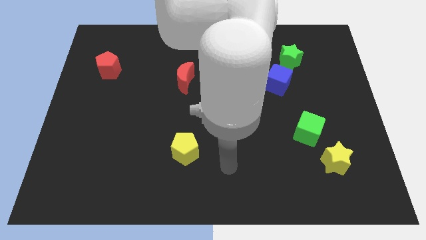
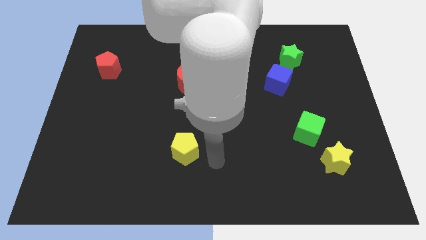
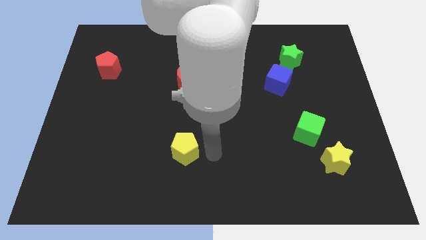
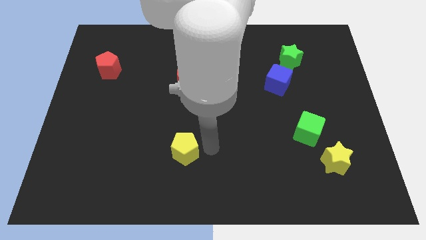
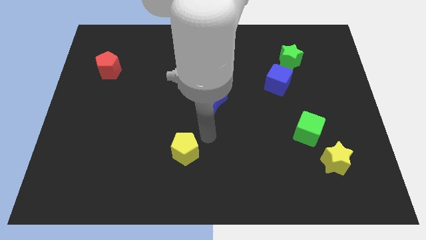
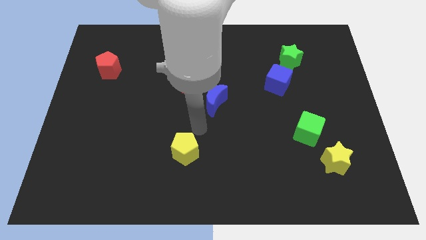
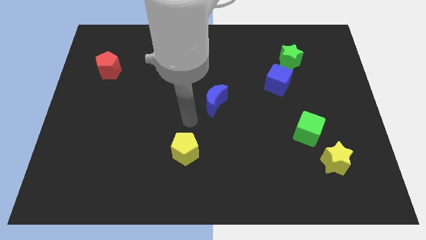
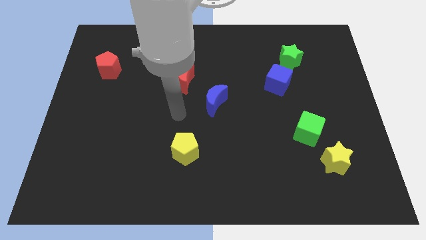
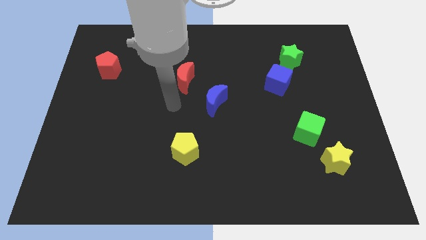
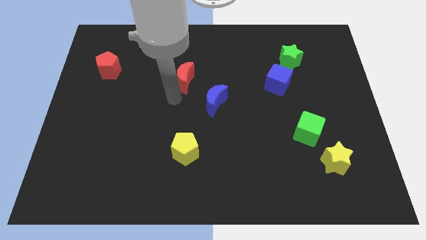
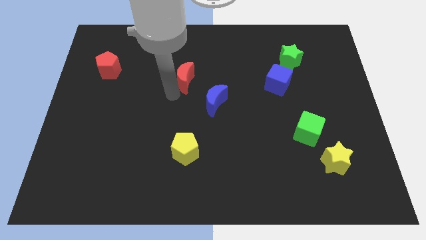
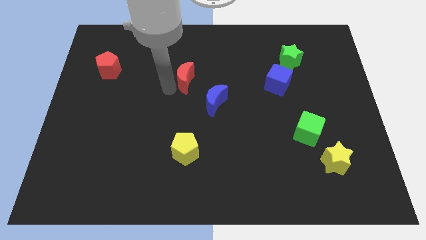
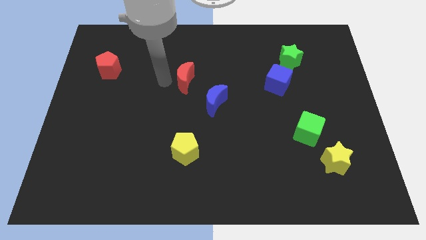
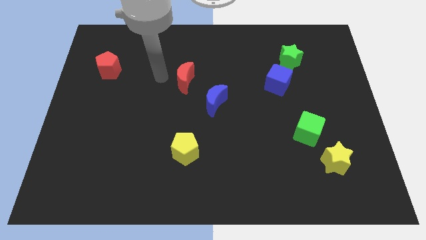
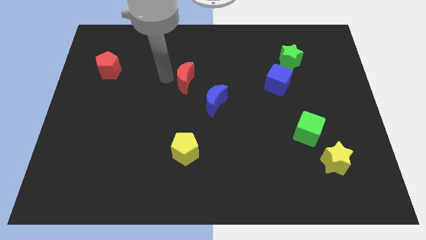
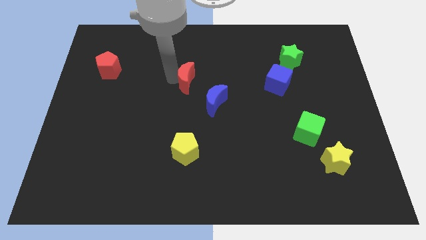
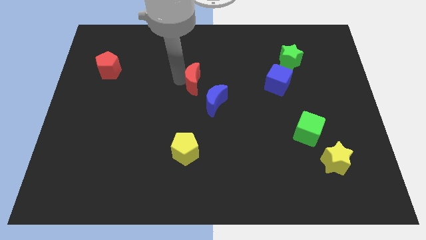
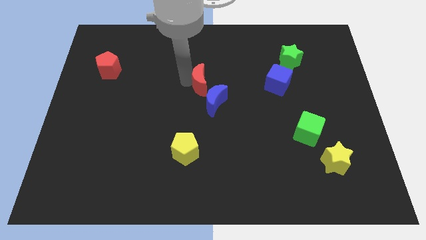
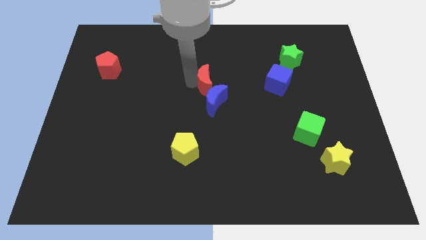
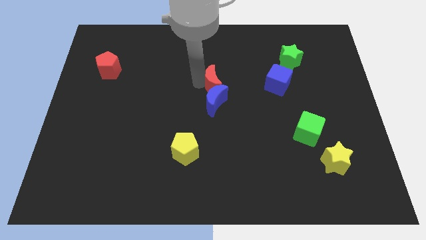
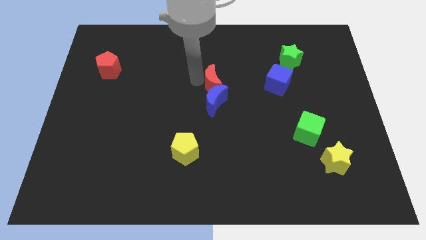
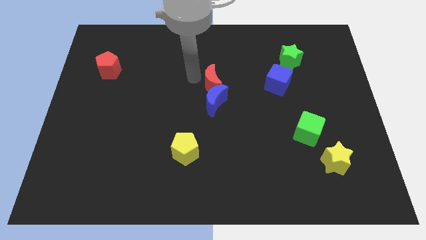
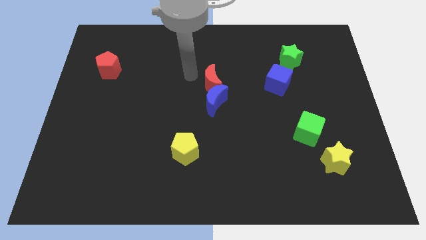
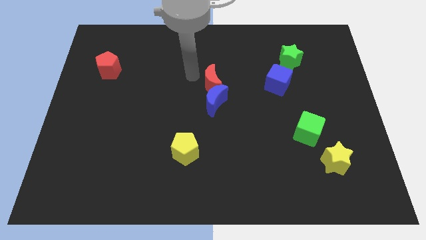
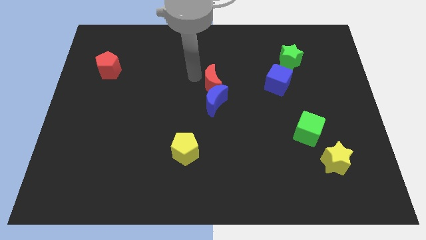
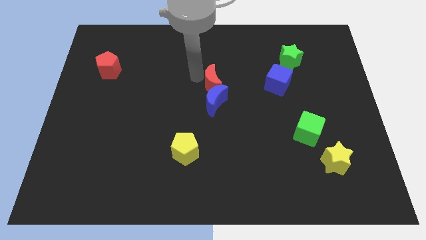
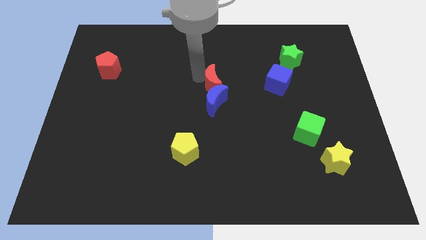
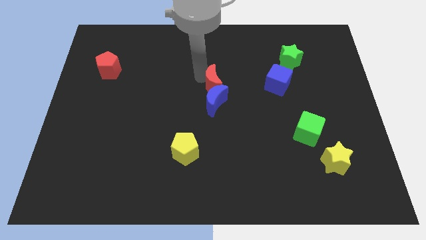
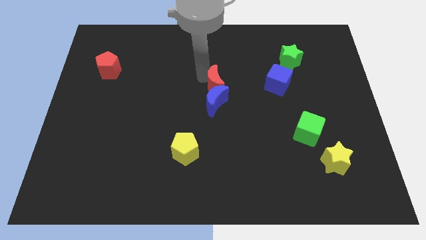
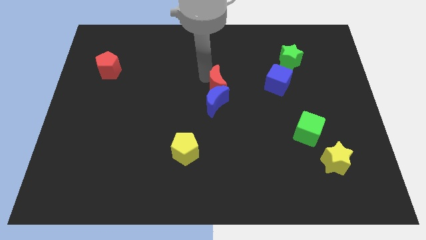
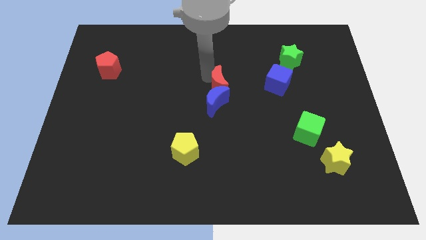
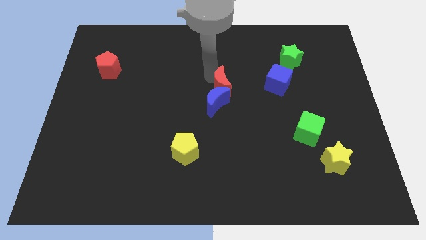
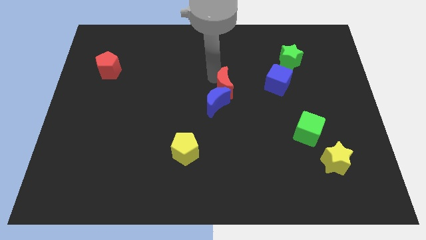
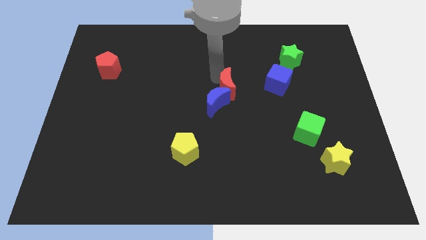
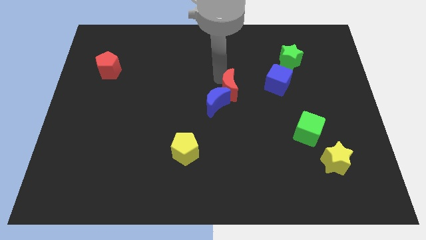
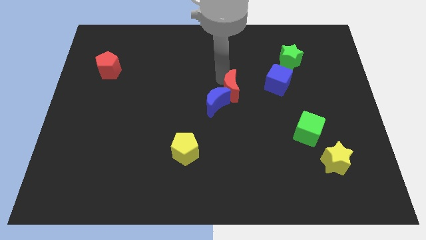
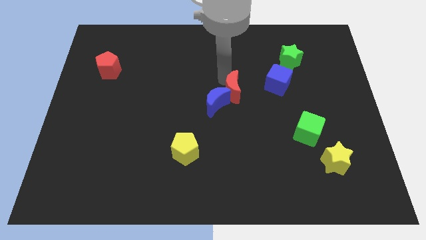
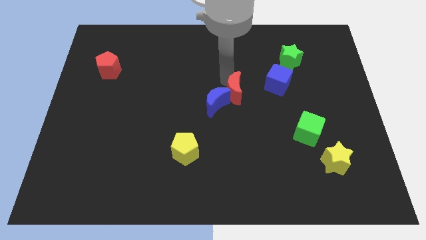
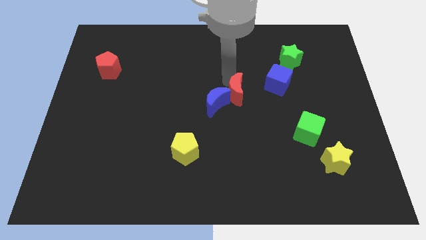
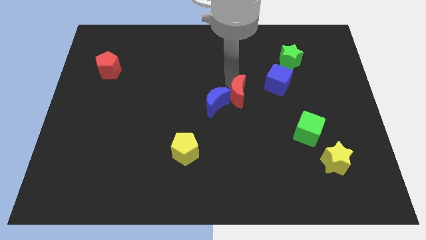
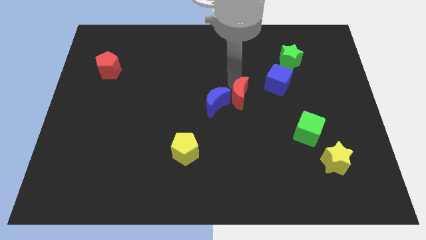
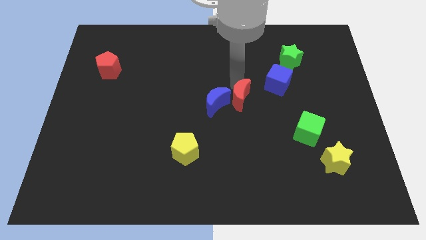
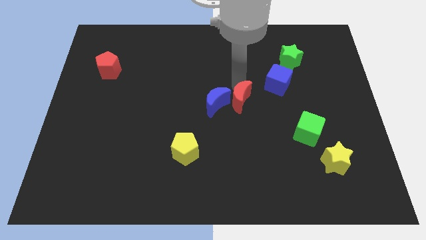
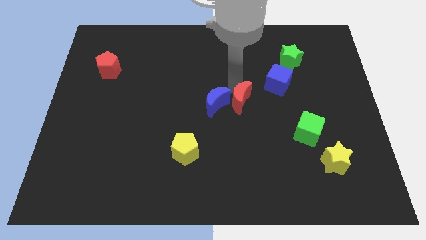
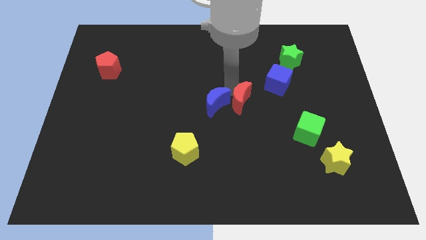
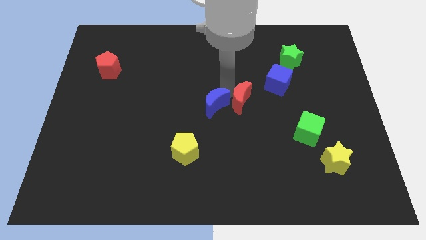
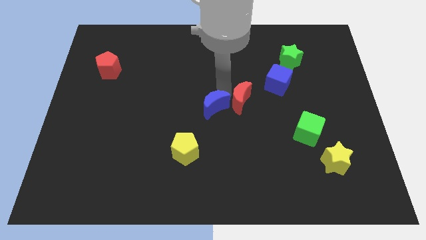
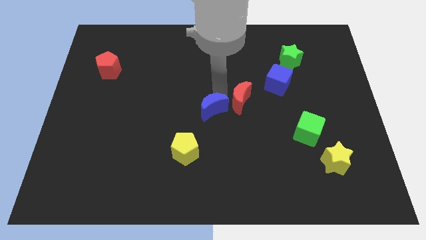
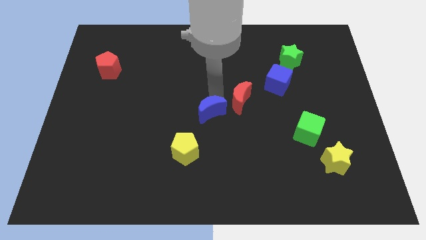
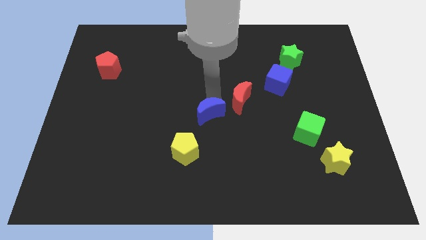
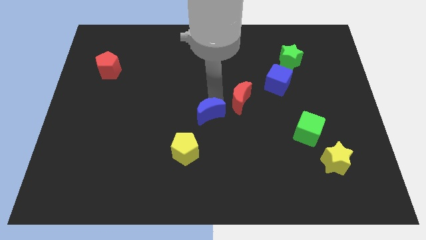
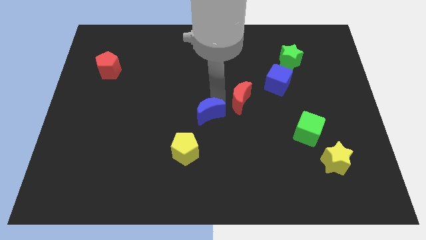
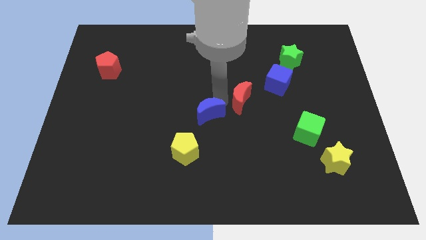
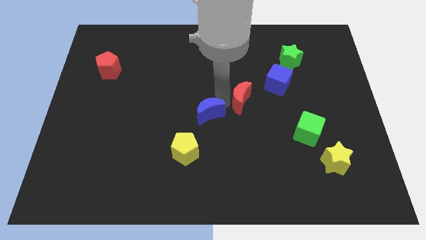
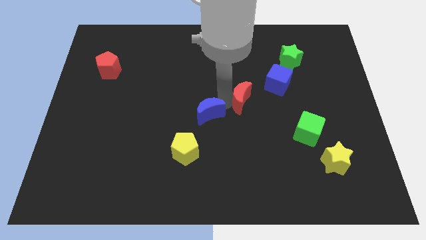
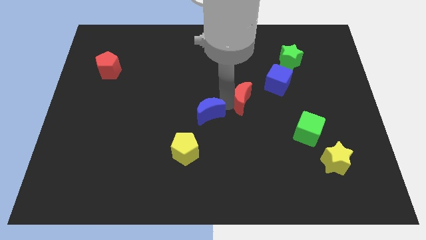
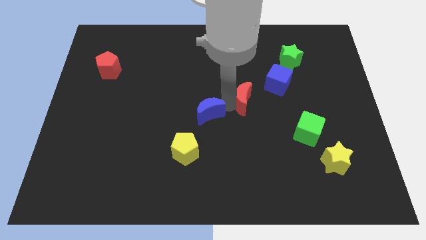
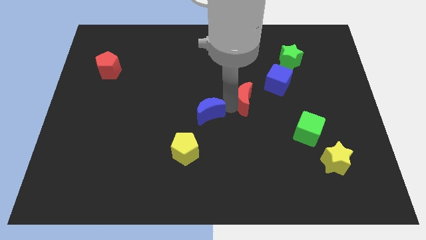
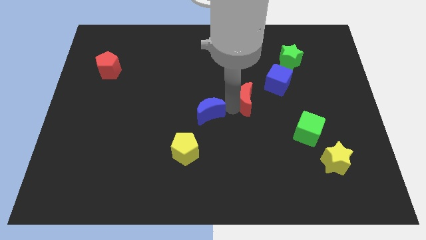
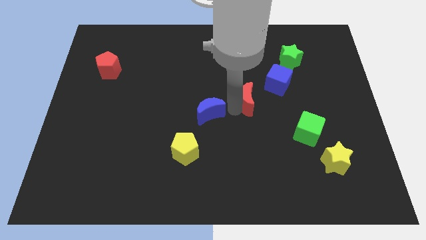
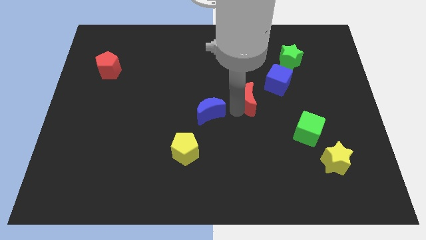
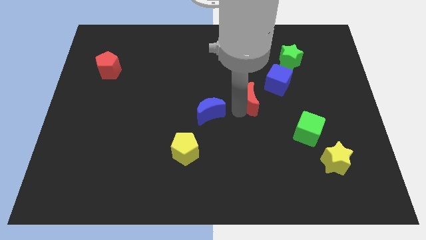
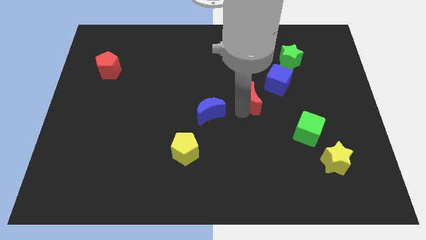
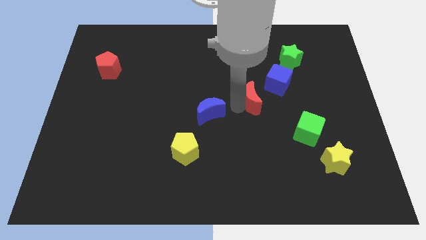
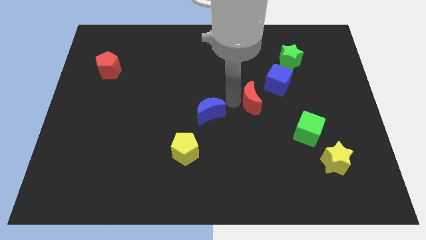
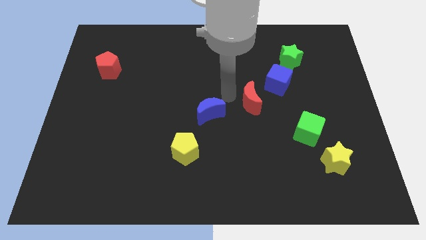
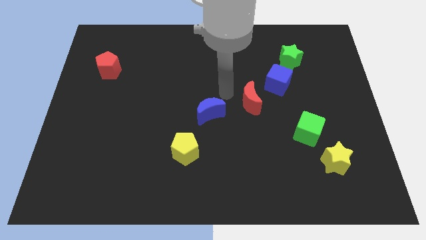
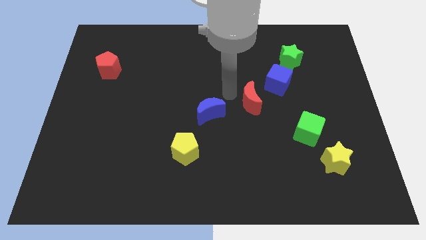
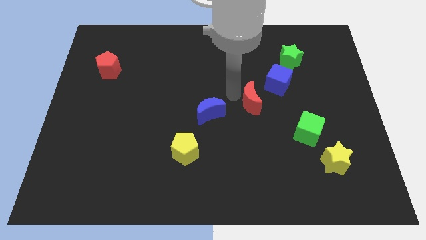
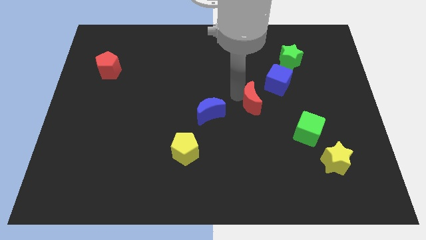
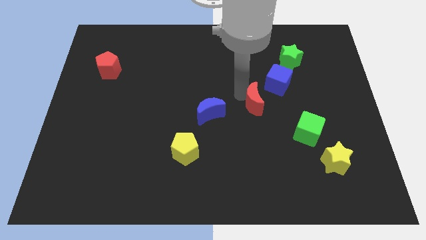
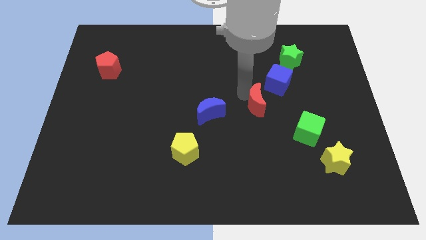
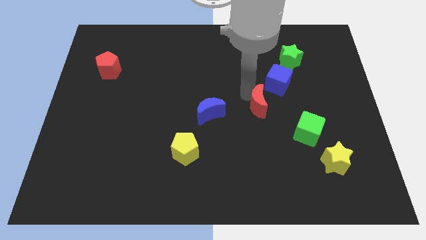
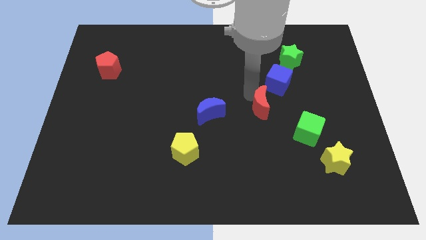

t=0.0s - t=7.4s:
slide the red moon to the top left side of the green cube
